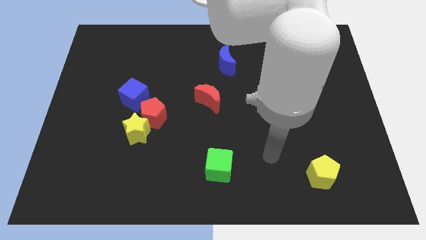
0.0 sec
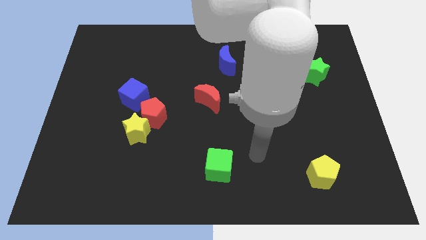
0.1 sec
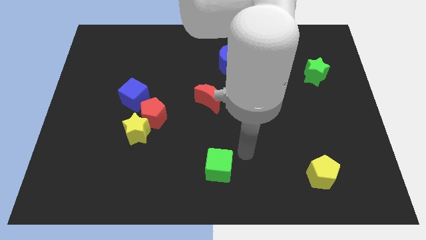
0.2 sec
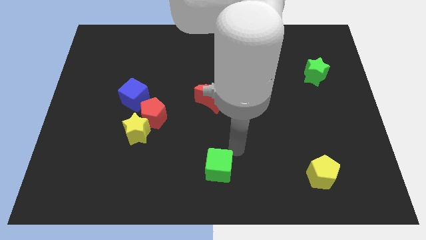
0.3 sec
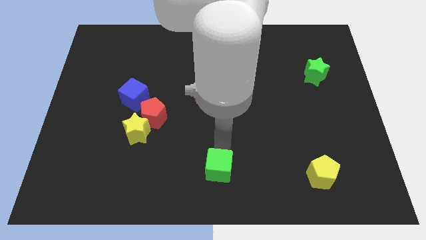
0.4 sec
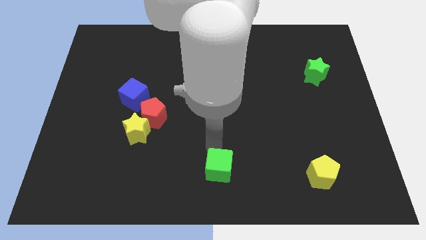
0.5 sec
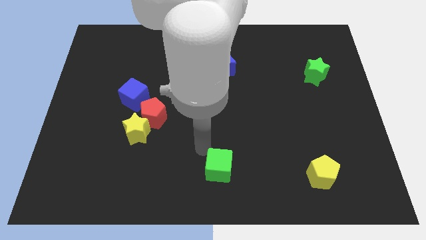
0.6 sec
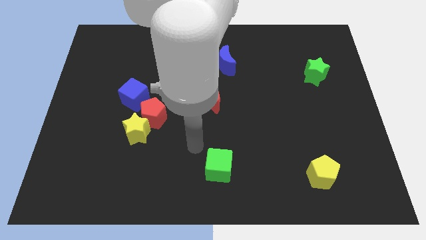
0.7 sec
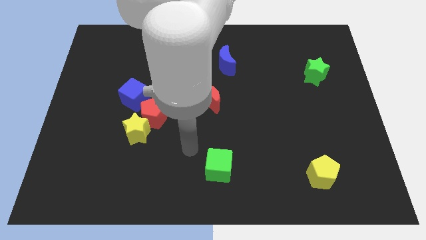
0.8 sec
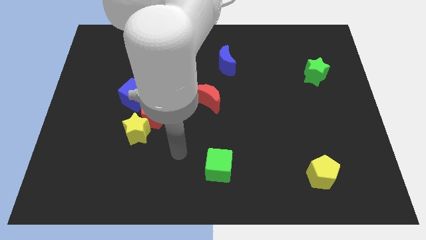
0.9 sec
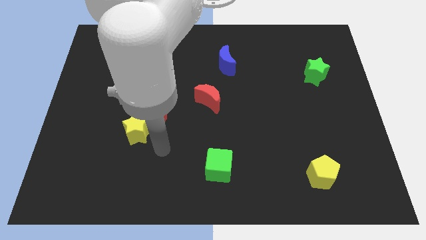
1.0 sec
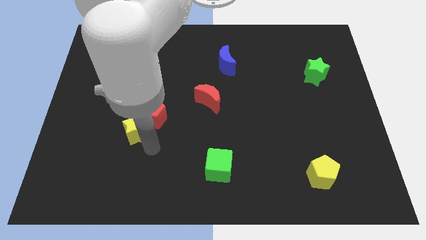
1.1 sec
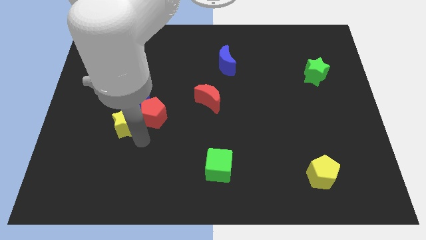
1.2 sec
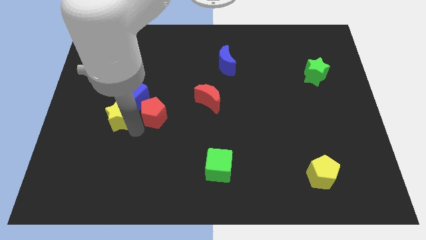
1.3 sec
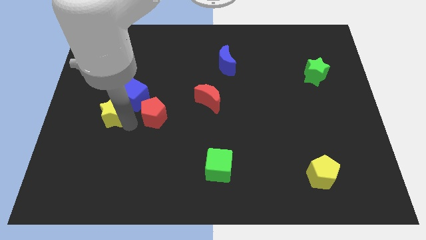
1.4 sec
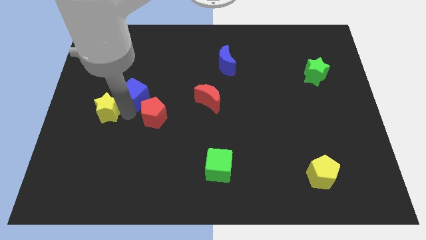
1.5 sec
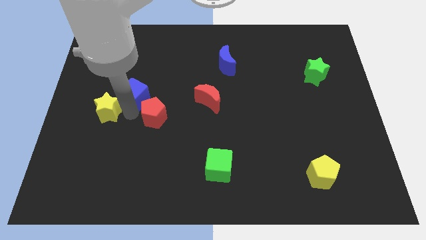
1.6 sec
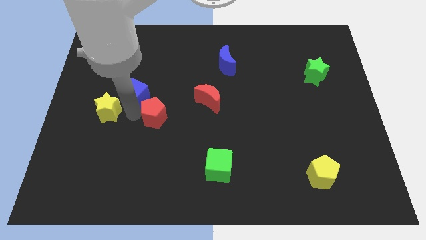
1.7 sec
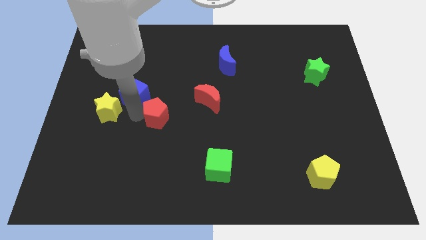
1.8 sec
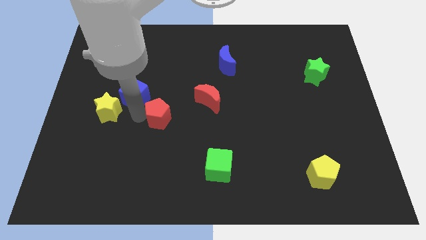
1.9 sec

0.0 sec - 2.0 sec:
separate the red pentagon from the yellow star and blue cube

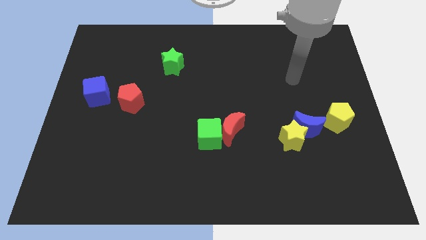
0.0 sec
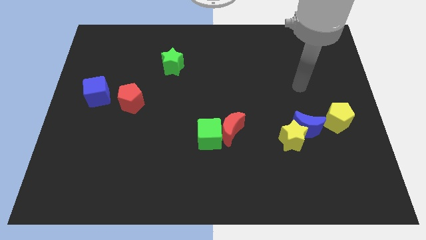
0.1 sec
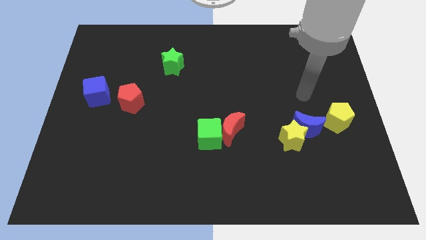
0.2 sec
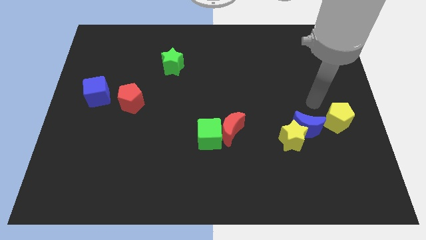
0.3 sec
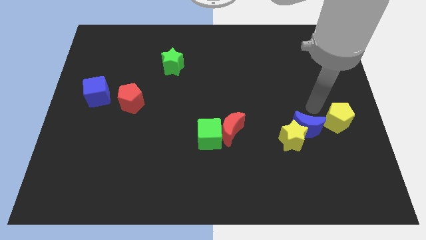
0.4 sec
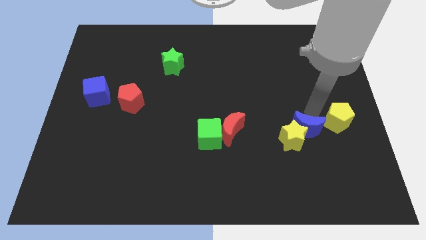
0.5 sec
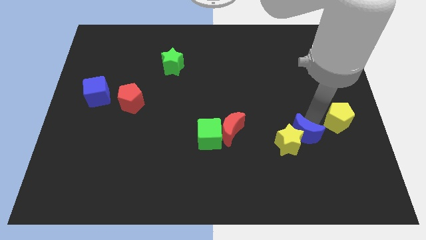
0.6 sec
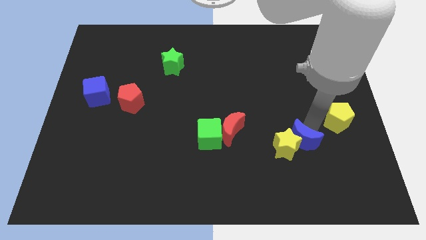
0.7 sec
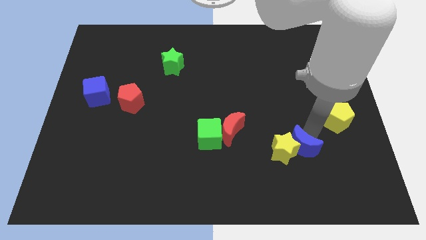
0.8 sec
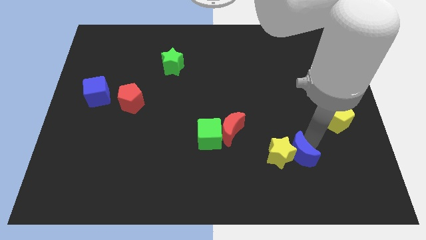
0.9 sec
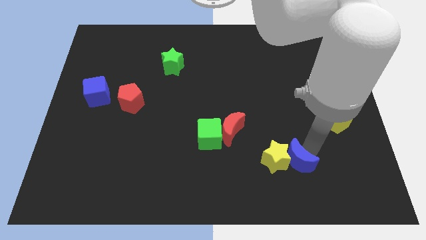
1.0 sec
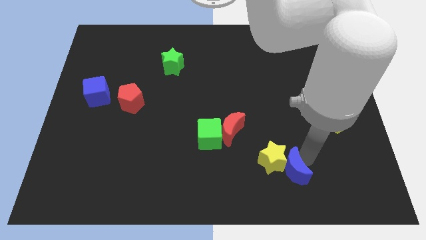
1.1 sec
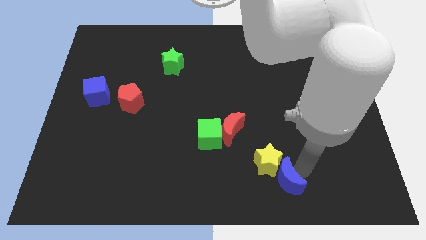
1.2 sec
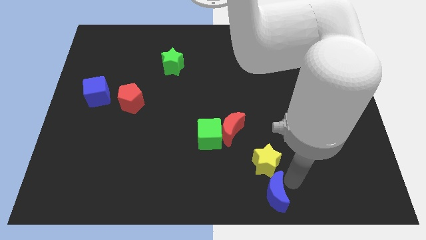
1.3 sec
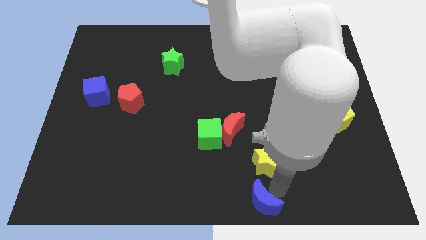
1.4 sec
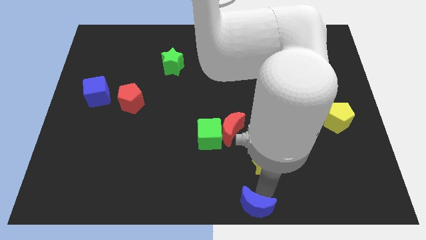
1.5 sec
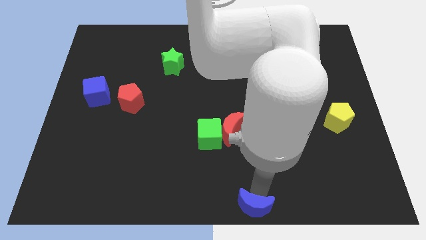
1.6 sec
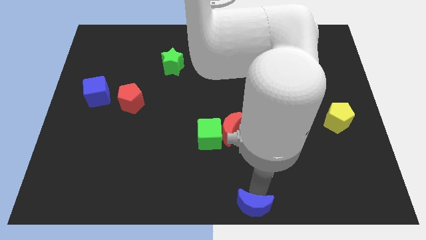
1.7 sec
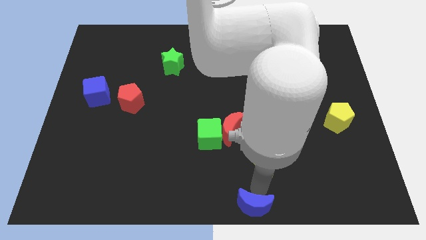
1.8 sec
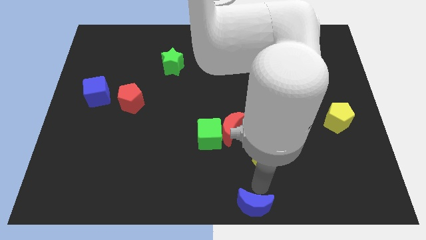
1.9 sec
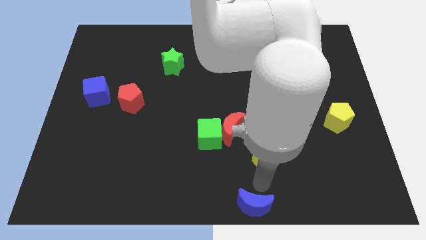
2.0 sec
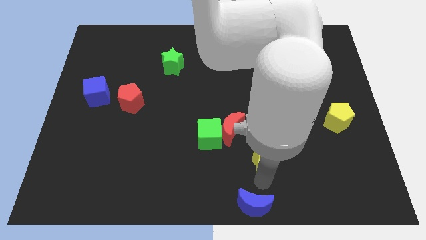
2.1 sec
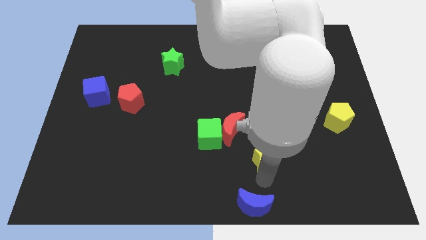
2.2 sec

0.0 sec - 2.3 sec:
pull the yellow star apart from the blue moon

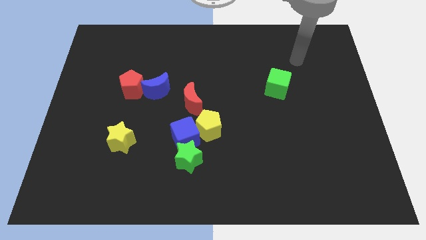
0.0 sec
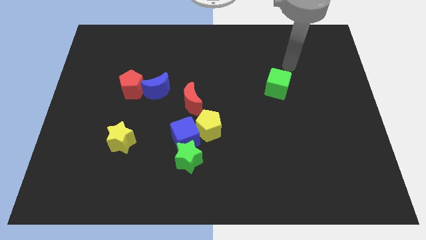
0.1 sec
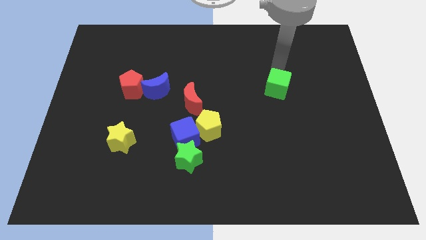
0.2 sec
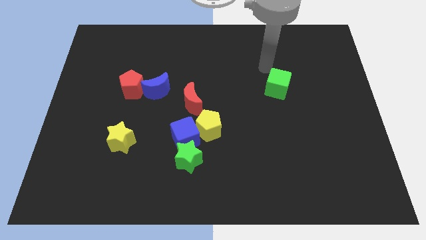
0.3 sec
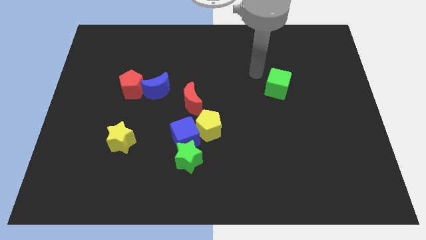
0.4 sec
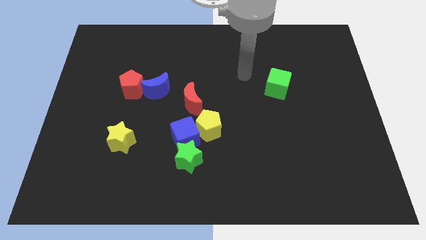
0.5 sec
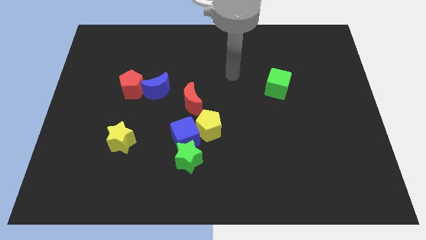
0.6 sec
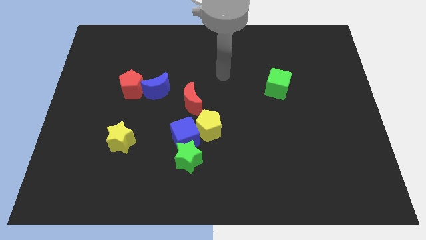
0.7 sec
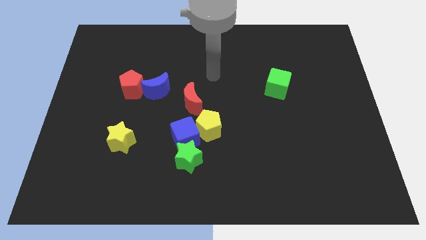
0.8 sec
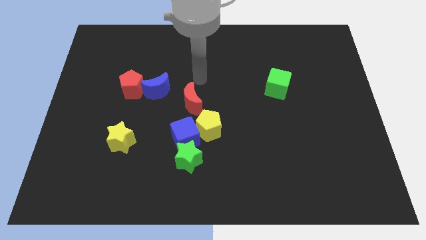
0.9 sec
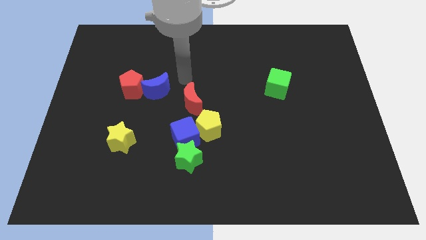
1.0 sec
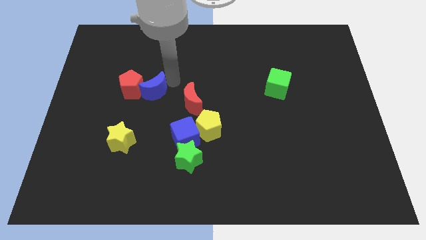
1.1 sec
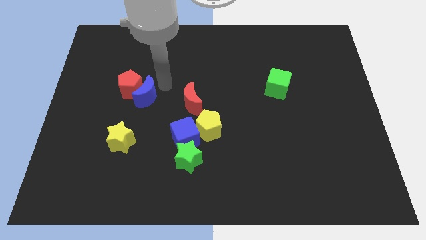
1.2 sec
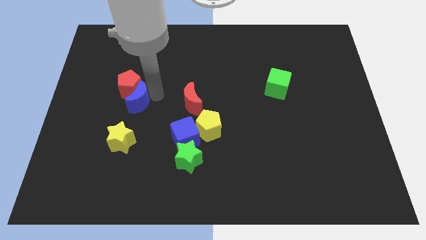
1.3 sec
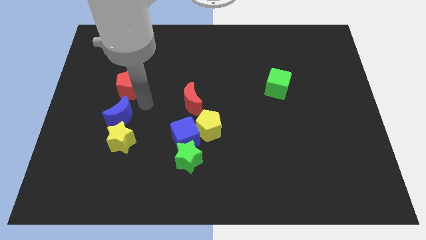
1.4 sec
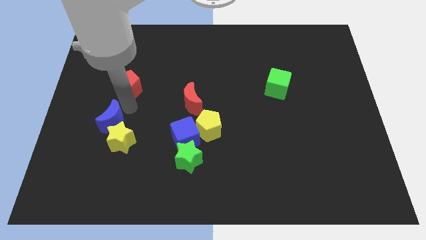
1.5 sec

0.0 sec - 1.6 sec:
pull the red pentagon apart from the blue moon

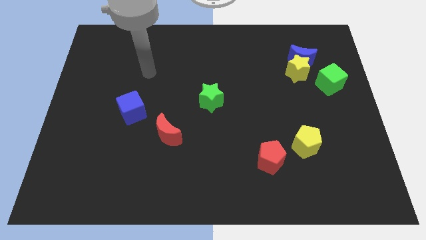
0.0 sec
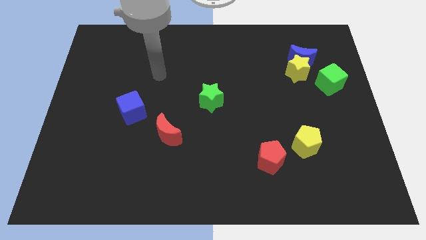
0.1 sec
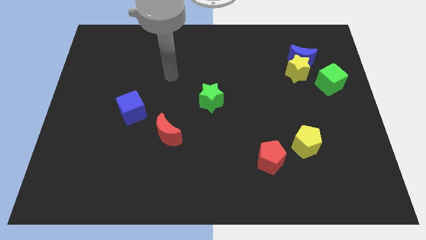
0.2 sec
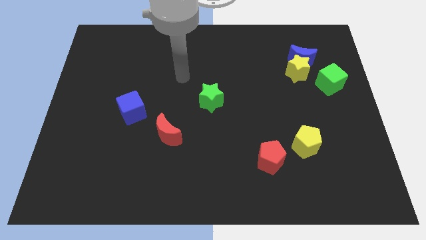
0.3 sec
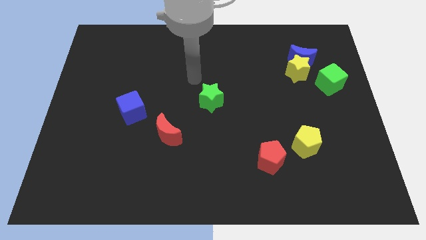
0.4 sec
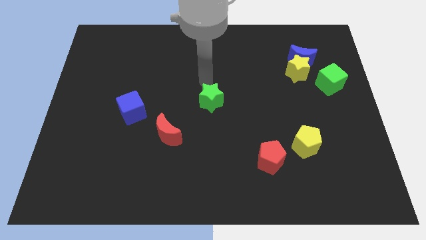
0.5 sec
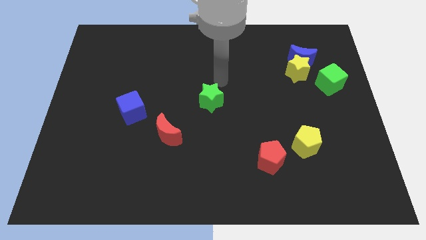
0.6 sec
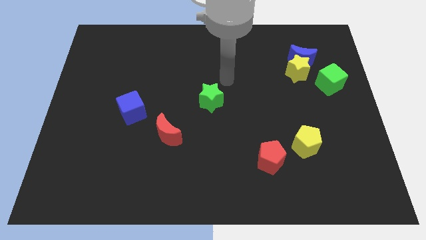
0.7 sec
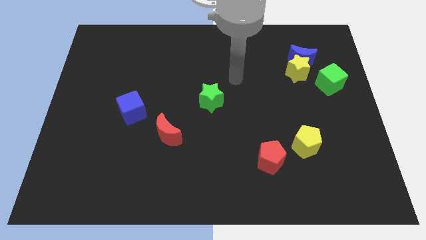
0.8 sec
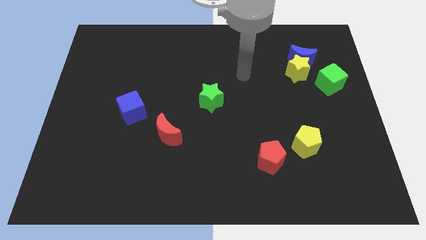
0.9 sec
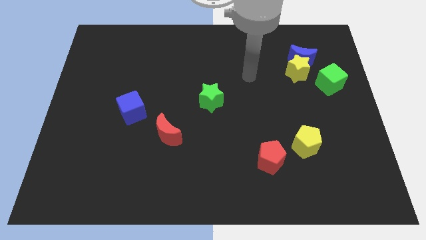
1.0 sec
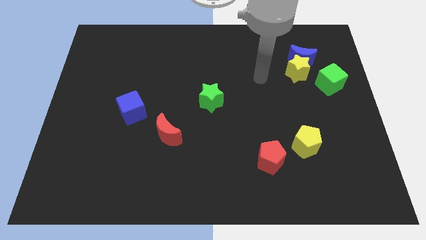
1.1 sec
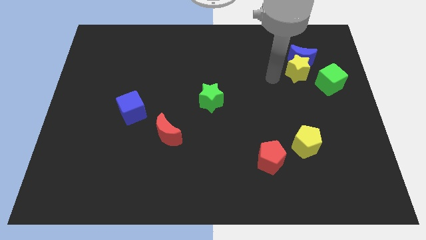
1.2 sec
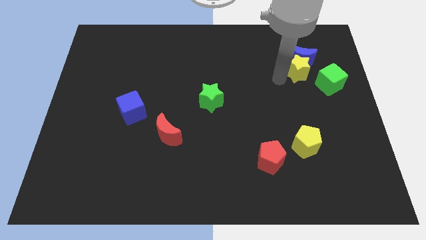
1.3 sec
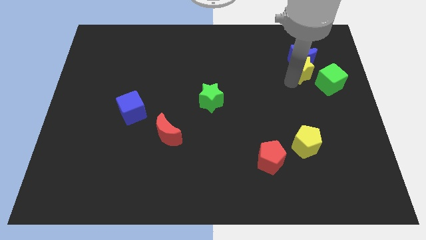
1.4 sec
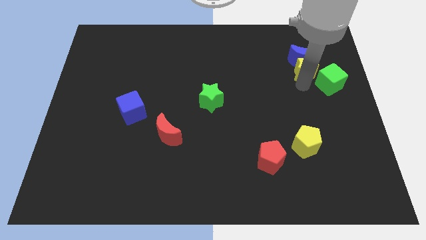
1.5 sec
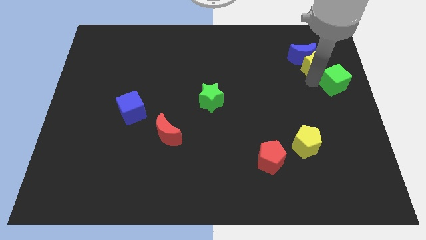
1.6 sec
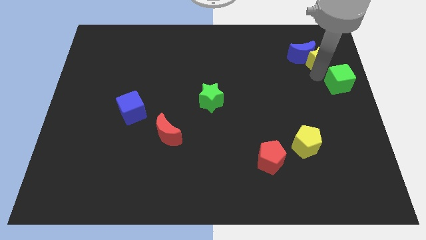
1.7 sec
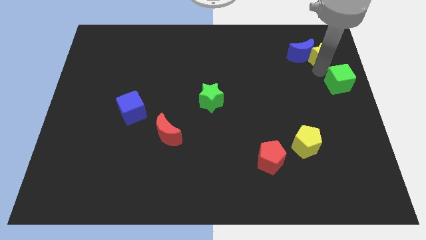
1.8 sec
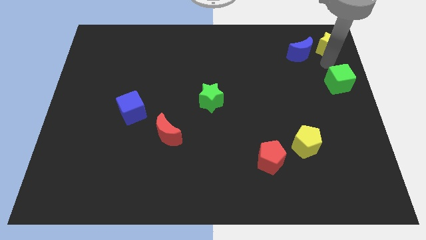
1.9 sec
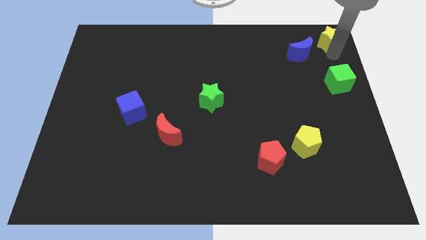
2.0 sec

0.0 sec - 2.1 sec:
pull the yellow star apart from the blue moon and green cube

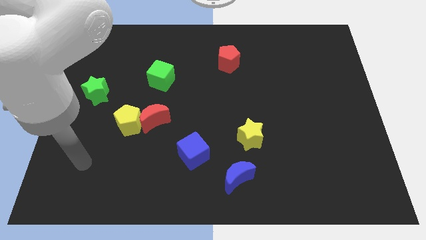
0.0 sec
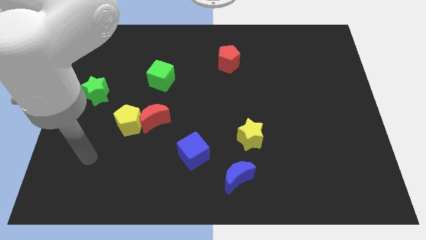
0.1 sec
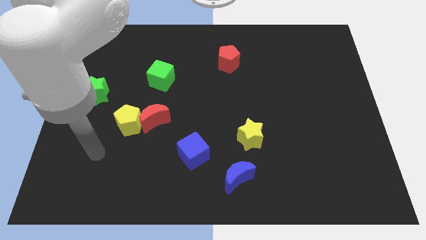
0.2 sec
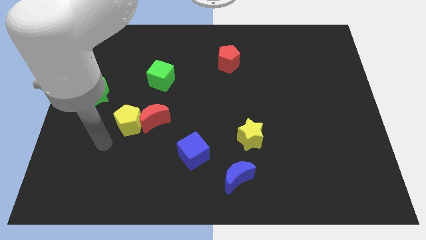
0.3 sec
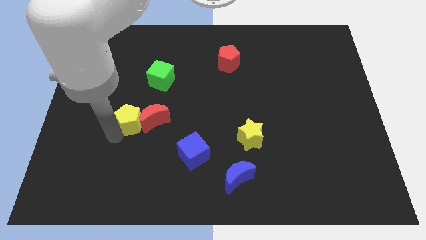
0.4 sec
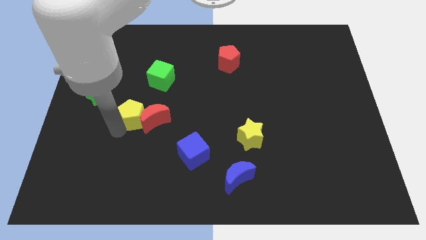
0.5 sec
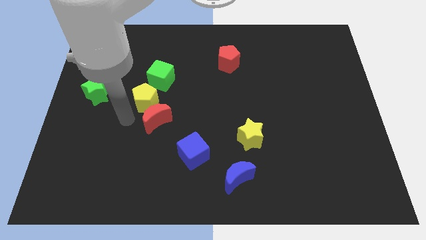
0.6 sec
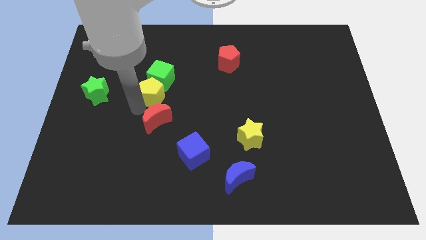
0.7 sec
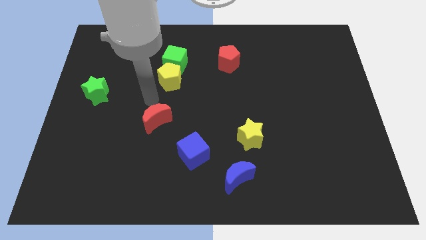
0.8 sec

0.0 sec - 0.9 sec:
move the red moon away from the yellow pentagon

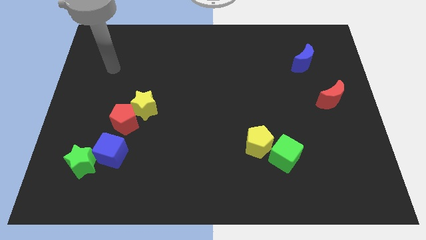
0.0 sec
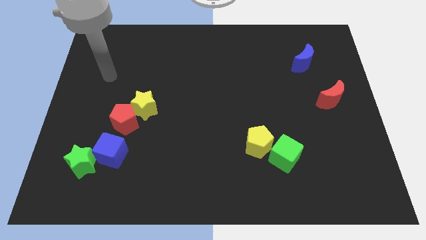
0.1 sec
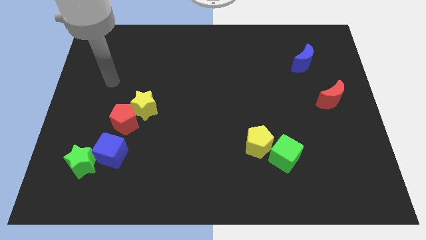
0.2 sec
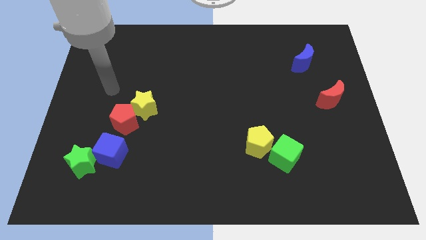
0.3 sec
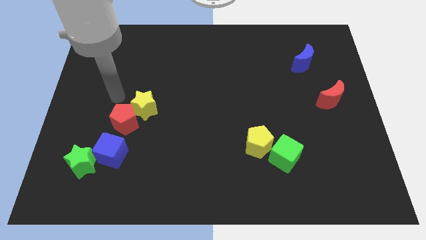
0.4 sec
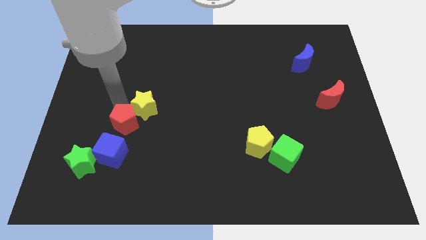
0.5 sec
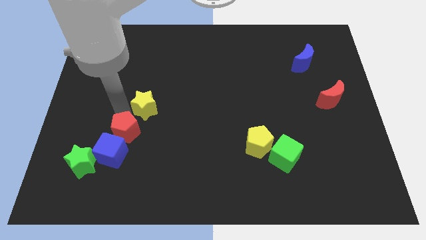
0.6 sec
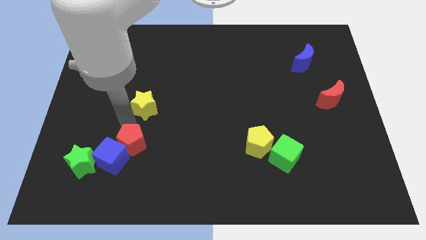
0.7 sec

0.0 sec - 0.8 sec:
separate the yellow star from the red pentagon
